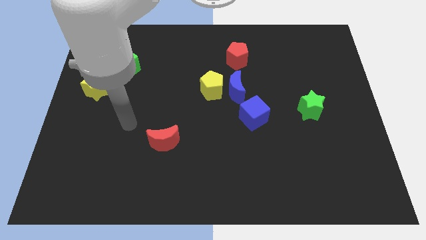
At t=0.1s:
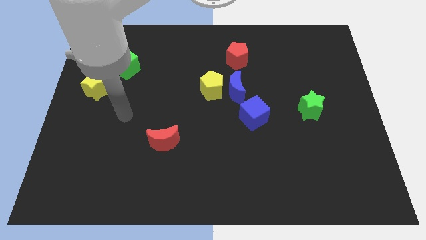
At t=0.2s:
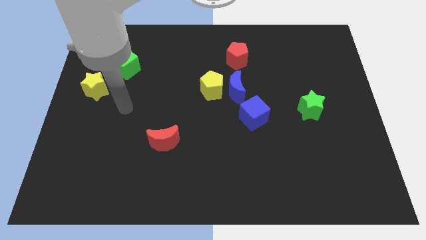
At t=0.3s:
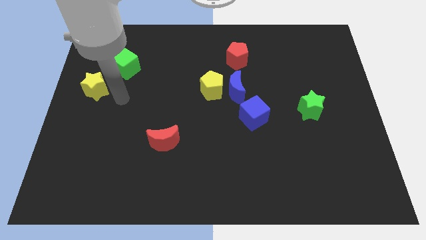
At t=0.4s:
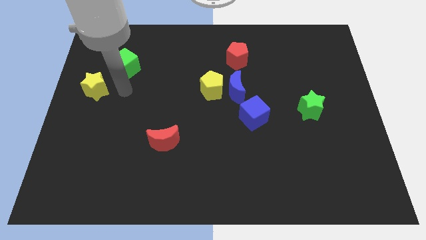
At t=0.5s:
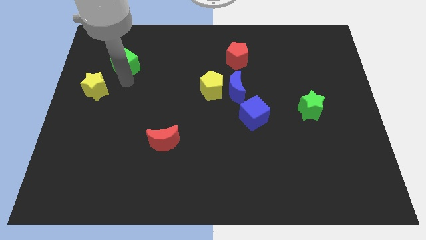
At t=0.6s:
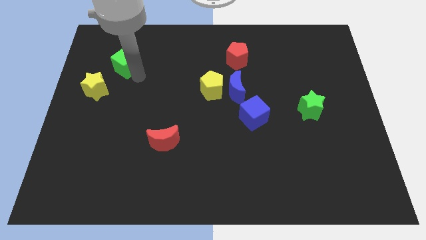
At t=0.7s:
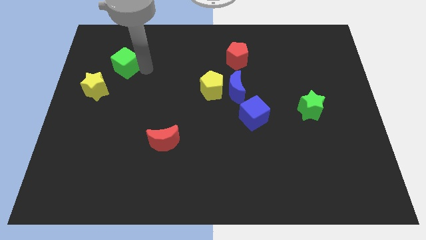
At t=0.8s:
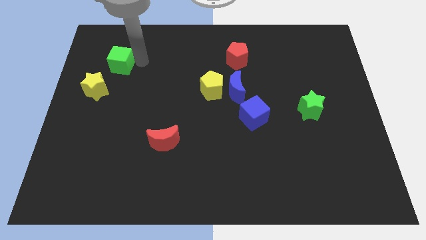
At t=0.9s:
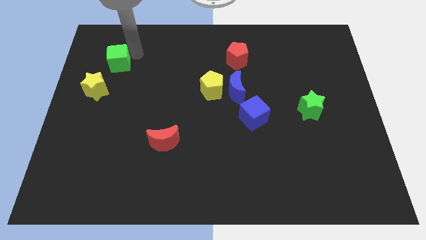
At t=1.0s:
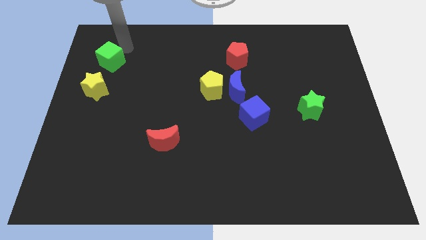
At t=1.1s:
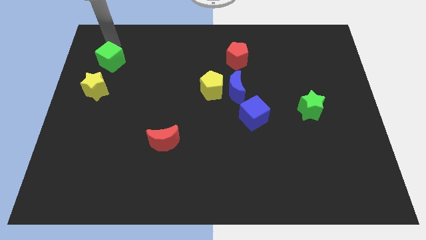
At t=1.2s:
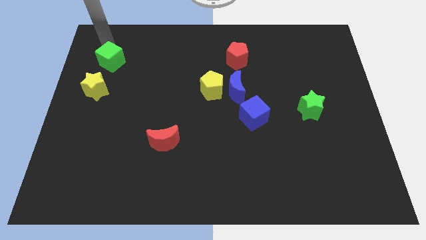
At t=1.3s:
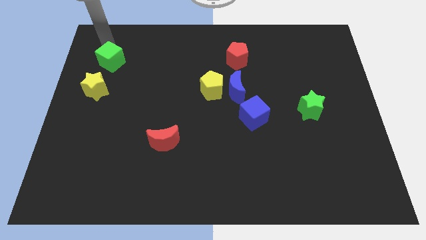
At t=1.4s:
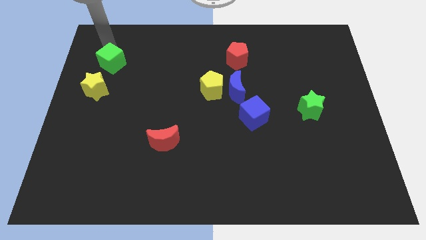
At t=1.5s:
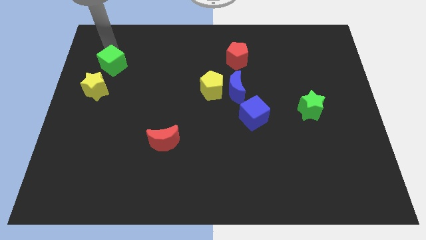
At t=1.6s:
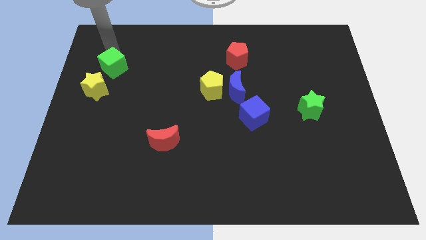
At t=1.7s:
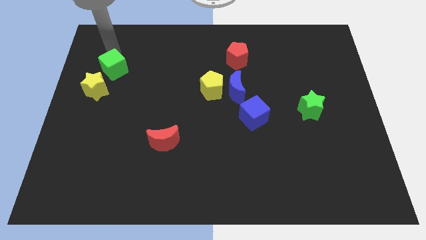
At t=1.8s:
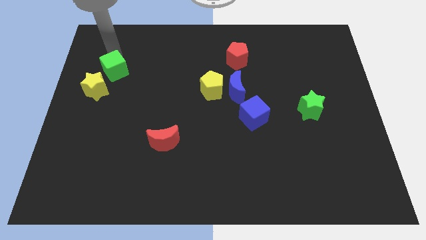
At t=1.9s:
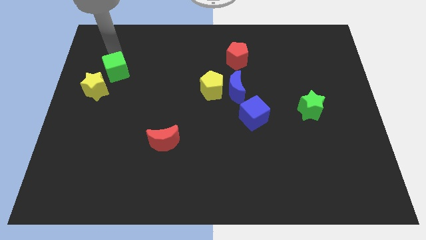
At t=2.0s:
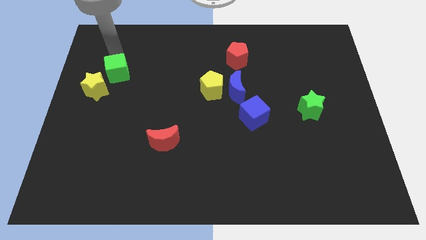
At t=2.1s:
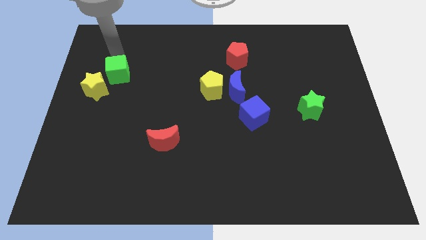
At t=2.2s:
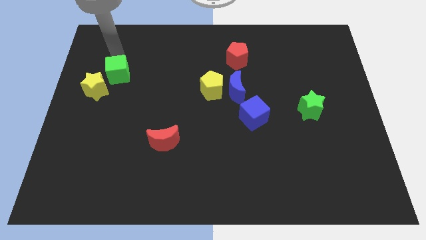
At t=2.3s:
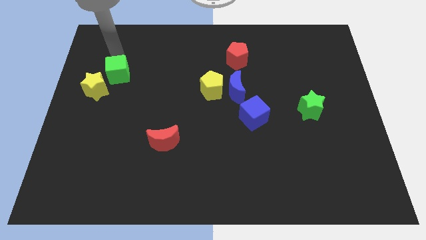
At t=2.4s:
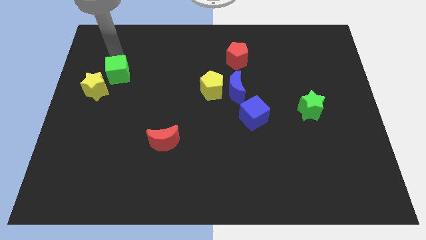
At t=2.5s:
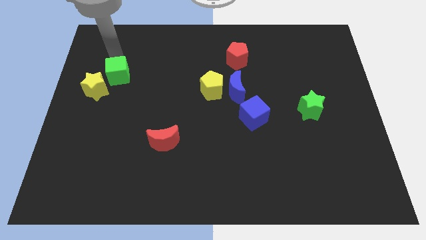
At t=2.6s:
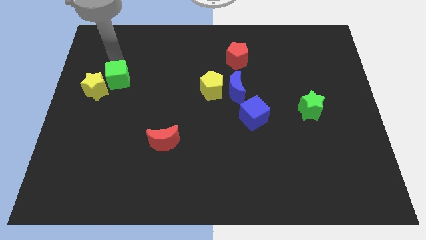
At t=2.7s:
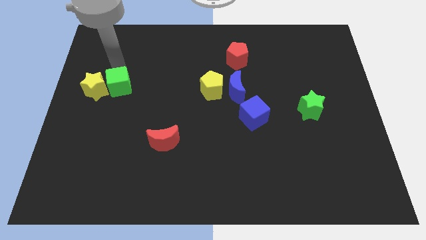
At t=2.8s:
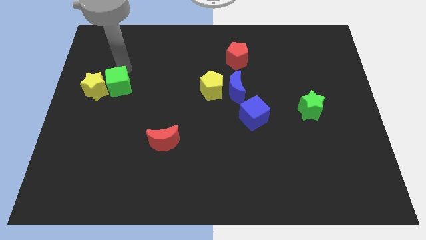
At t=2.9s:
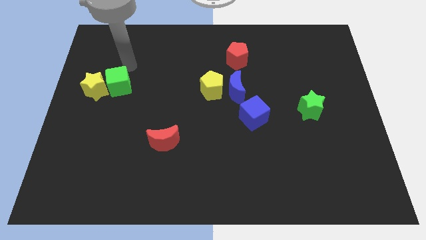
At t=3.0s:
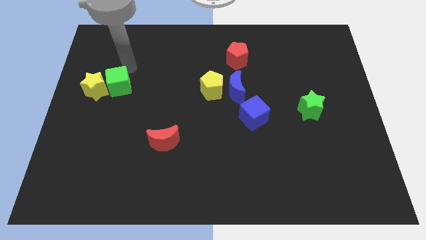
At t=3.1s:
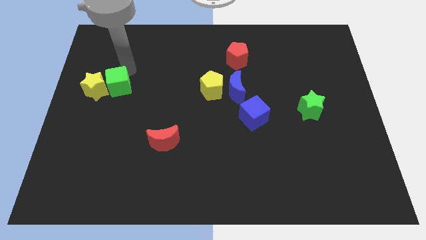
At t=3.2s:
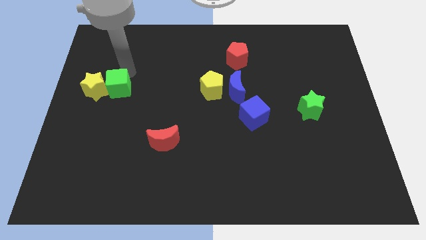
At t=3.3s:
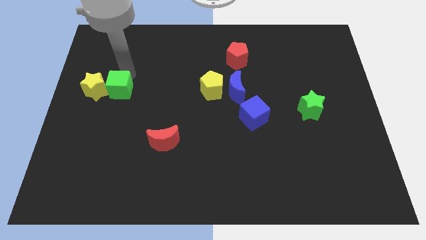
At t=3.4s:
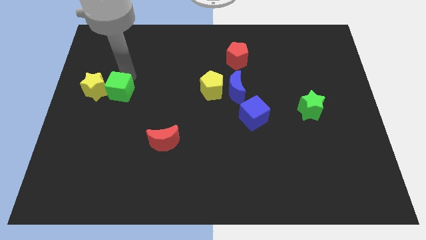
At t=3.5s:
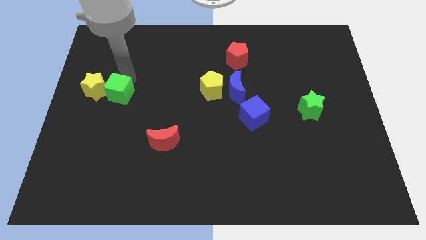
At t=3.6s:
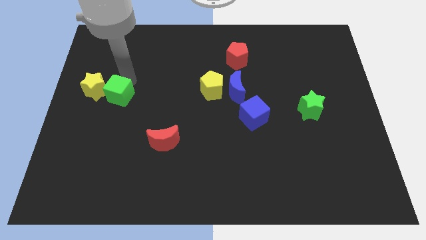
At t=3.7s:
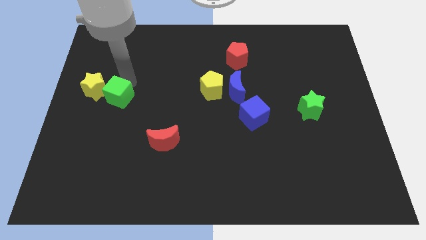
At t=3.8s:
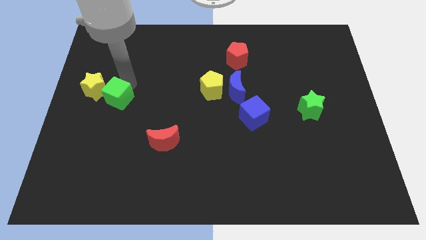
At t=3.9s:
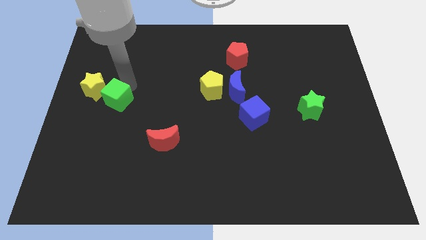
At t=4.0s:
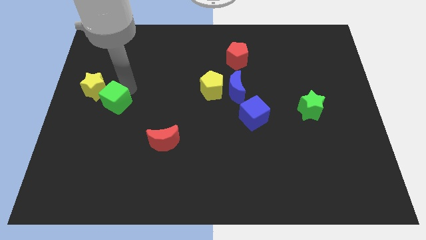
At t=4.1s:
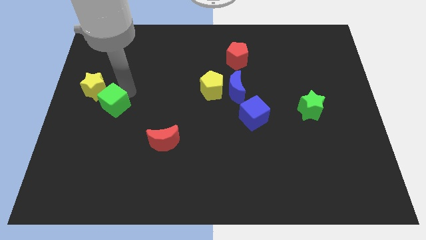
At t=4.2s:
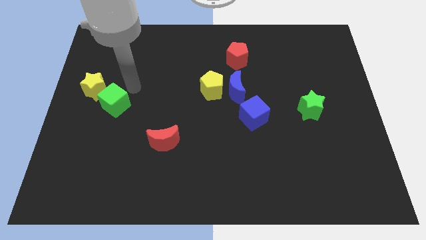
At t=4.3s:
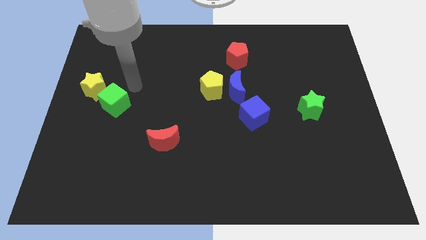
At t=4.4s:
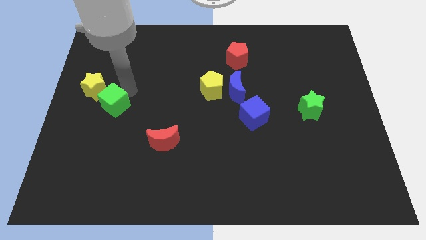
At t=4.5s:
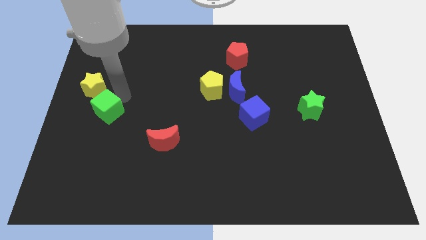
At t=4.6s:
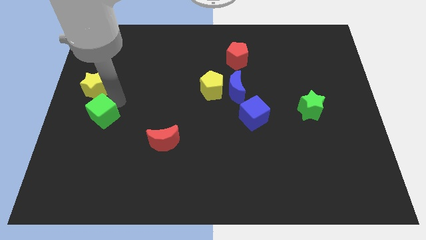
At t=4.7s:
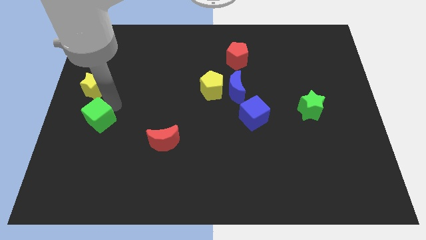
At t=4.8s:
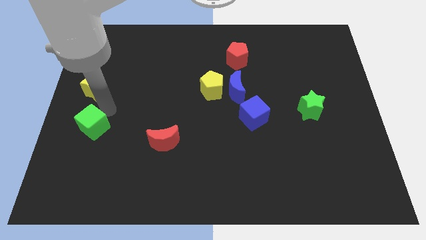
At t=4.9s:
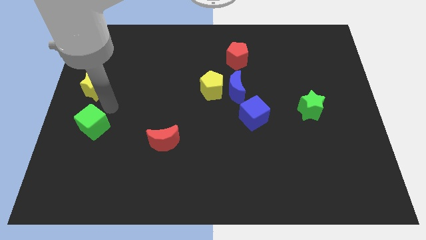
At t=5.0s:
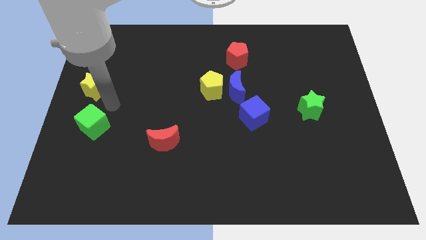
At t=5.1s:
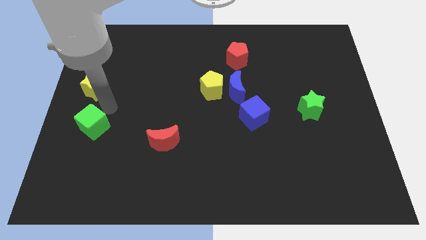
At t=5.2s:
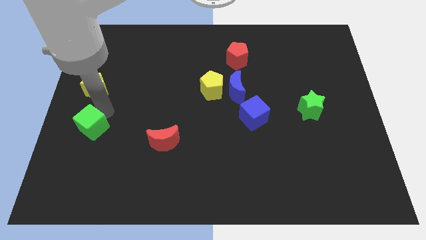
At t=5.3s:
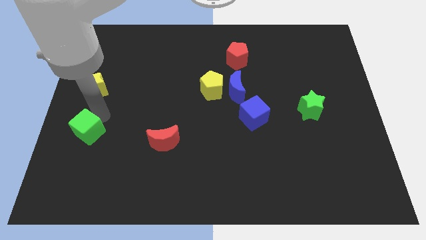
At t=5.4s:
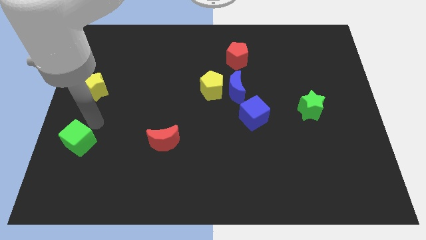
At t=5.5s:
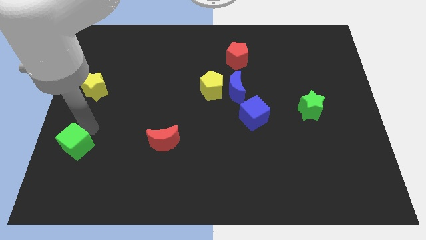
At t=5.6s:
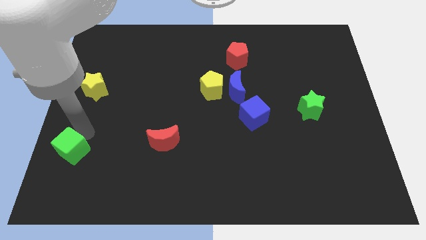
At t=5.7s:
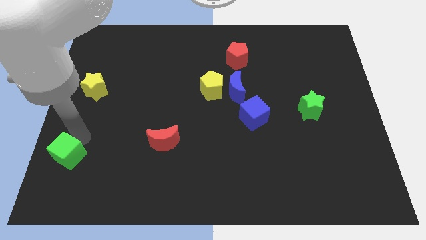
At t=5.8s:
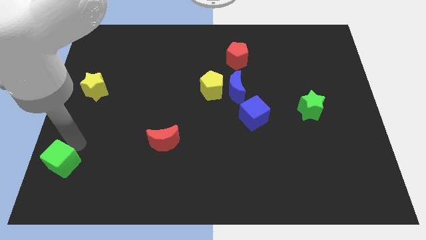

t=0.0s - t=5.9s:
push the green cube to the lower left corner

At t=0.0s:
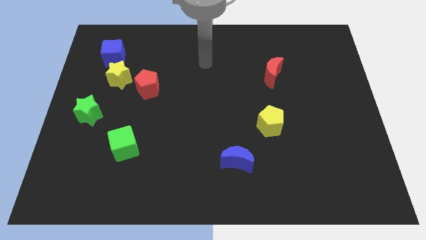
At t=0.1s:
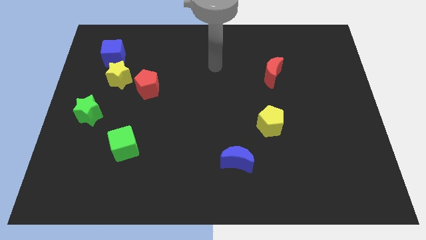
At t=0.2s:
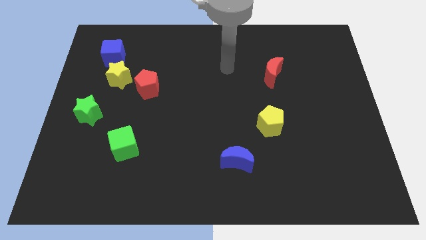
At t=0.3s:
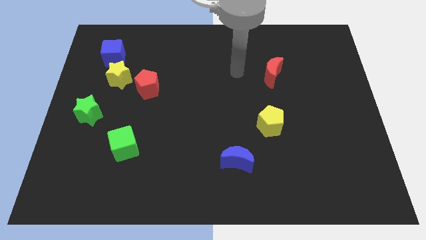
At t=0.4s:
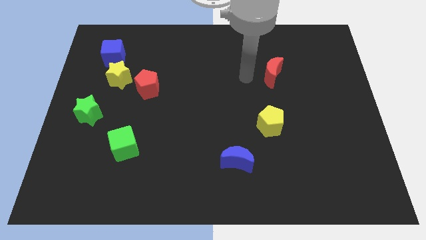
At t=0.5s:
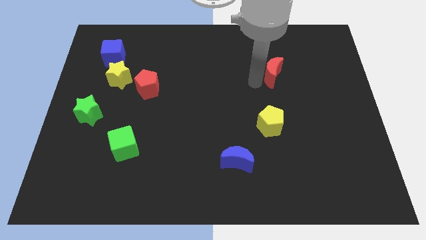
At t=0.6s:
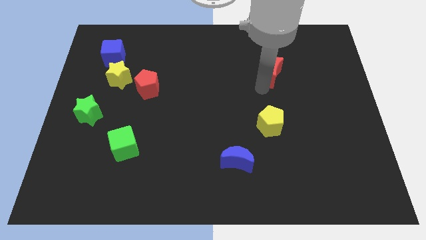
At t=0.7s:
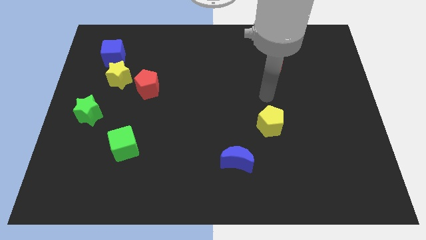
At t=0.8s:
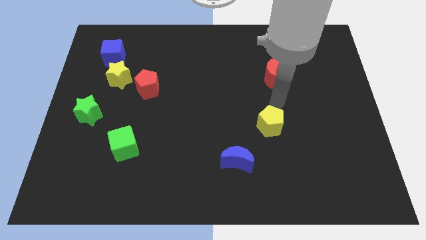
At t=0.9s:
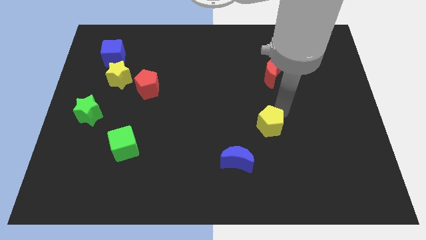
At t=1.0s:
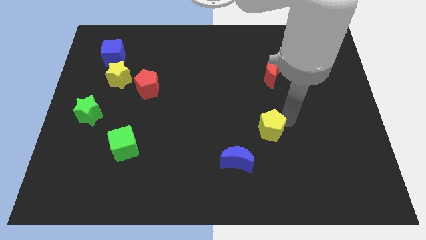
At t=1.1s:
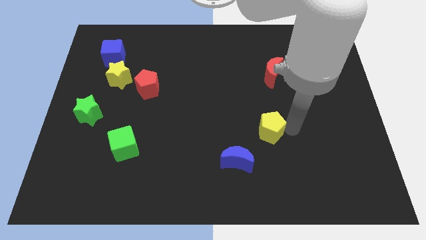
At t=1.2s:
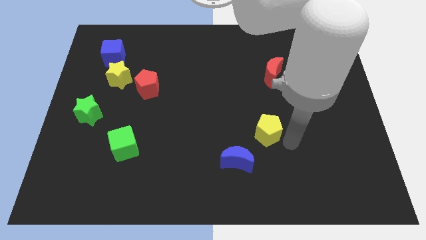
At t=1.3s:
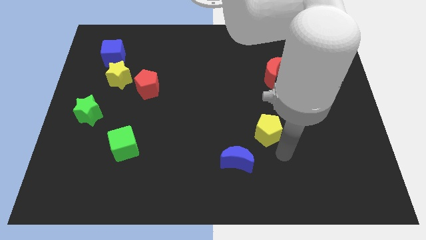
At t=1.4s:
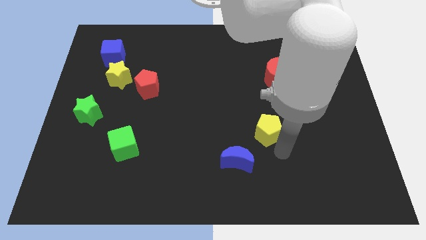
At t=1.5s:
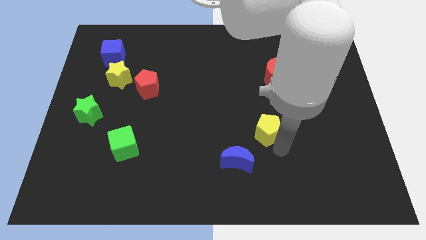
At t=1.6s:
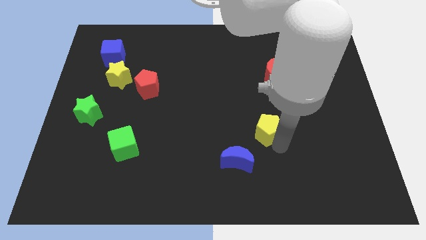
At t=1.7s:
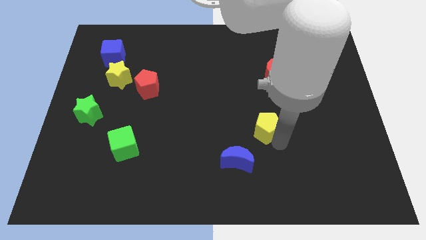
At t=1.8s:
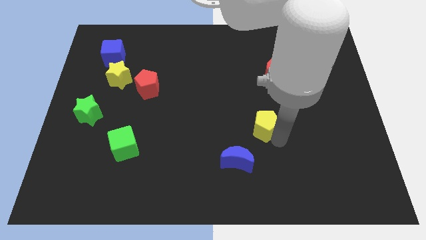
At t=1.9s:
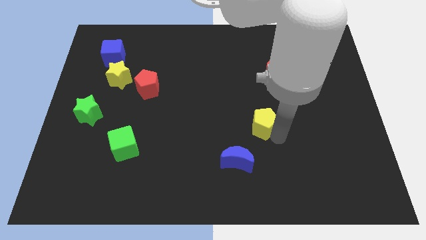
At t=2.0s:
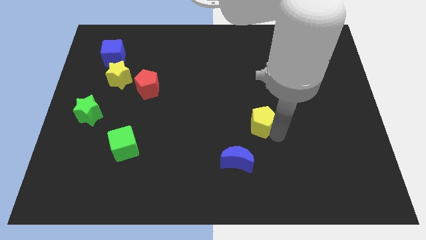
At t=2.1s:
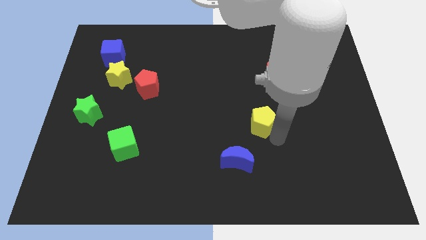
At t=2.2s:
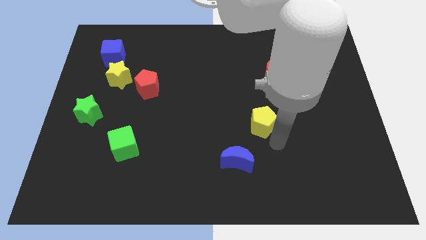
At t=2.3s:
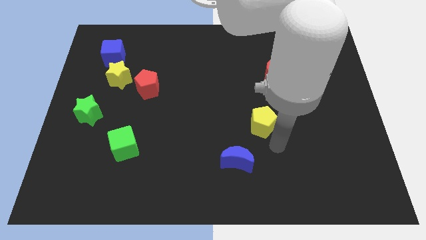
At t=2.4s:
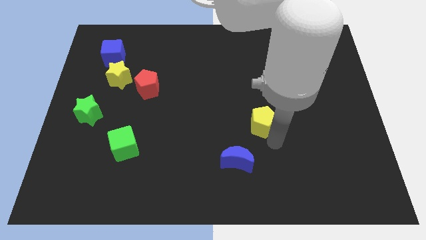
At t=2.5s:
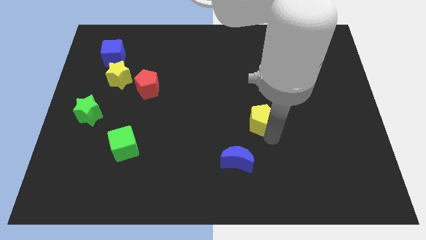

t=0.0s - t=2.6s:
move the yellow pentagon to the center of the board
